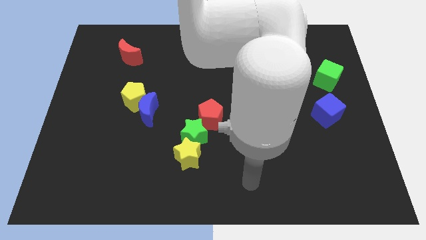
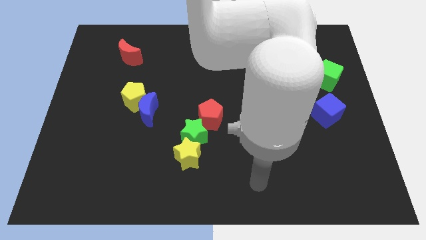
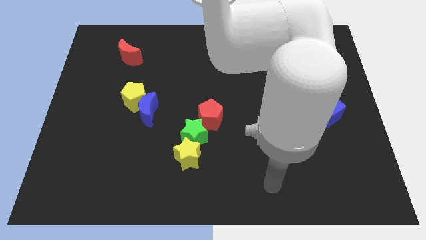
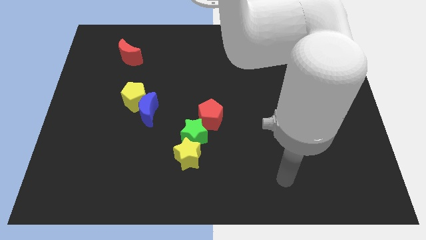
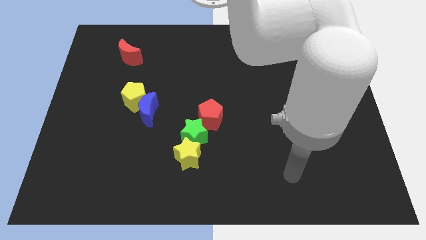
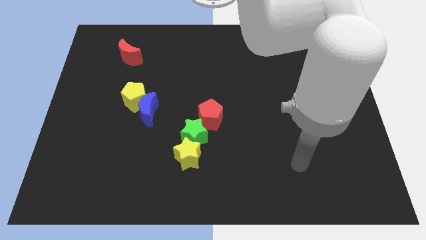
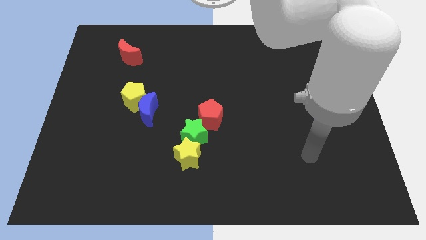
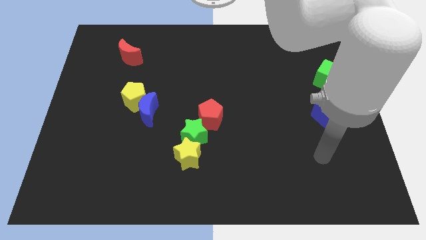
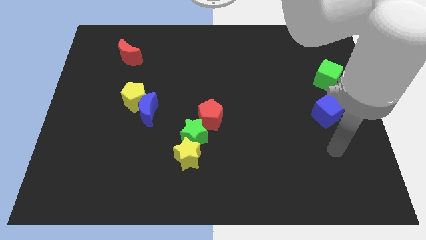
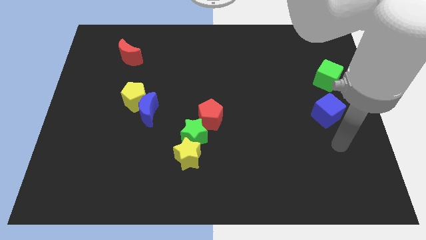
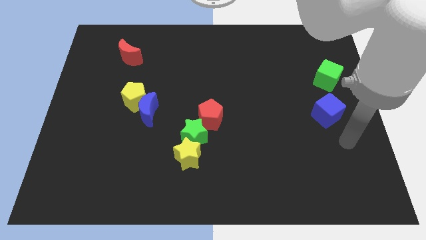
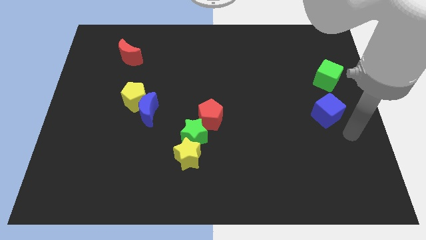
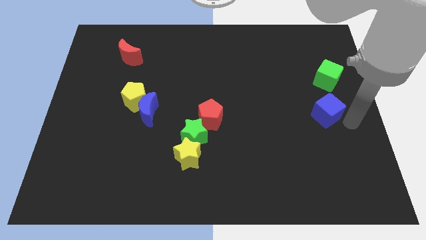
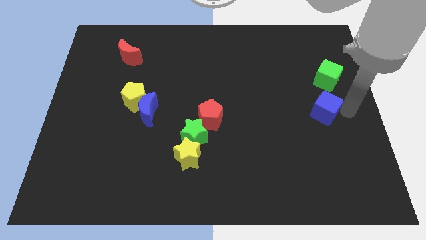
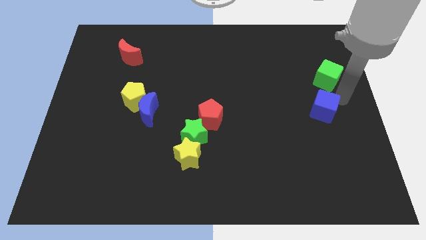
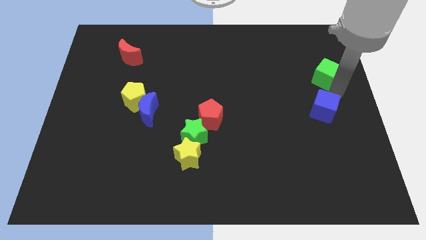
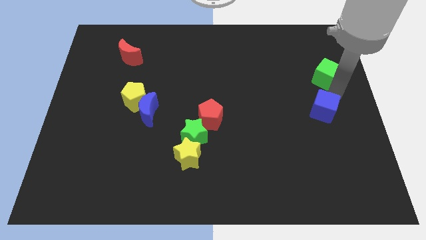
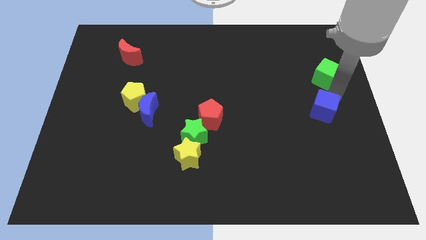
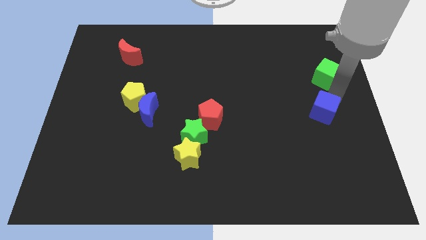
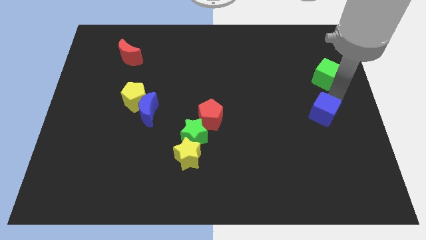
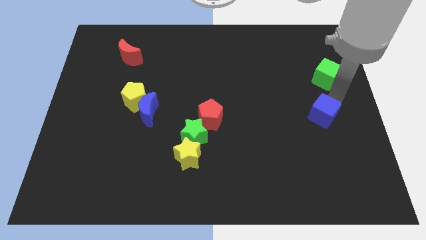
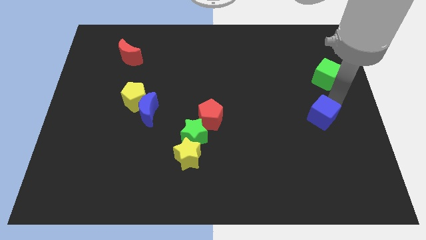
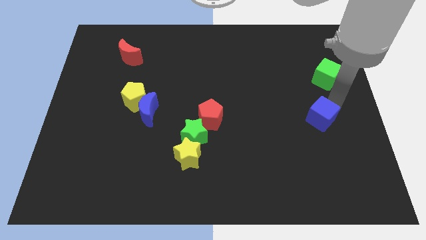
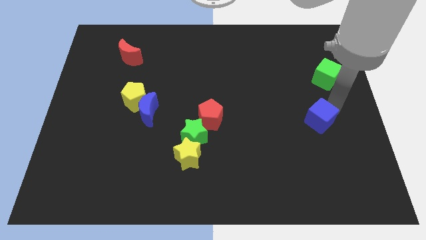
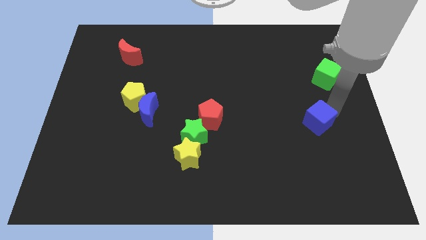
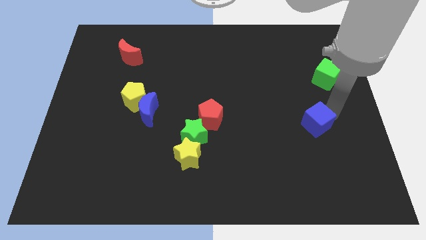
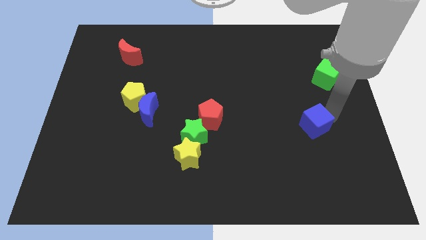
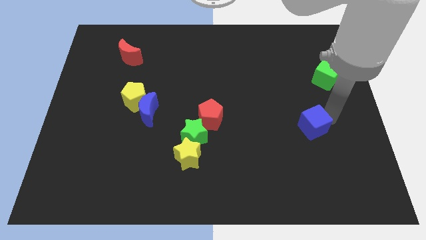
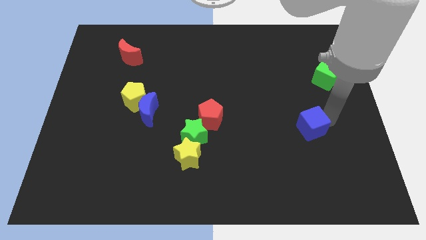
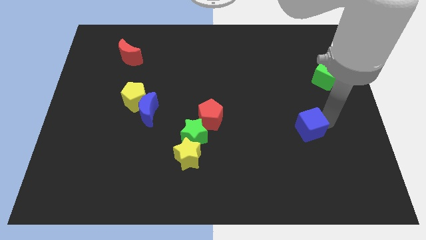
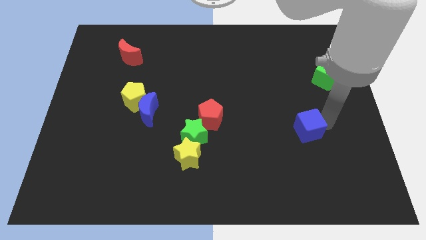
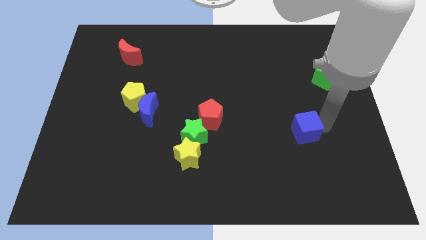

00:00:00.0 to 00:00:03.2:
move the blue cube slightly down and left diagonally

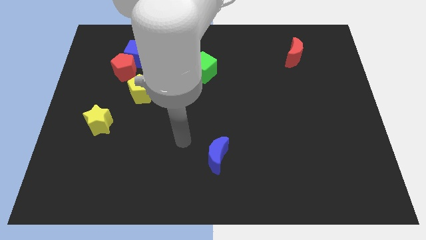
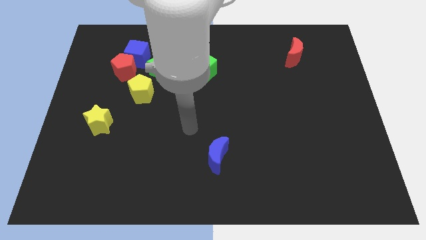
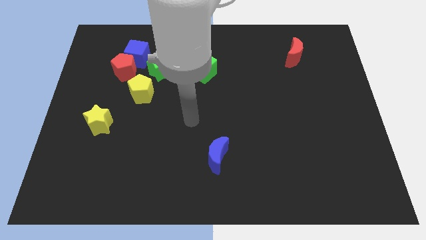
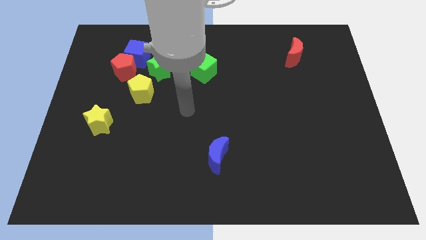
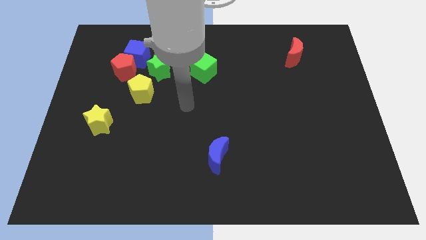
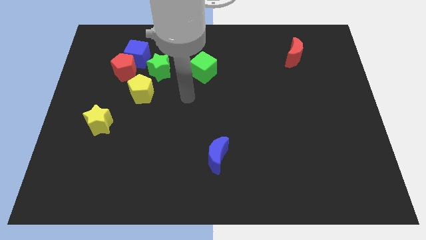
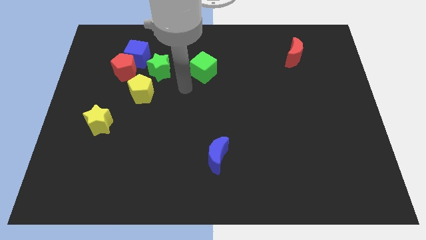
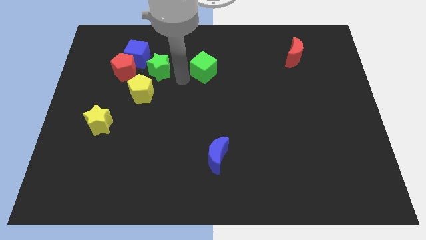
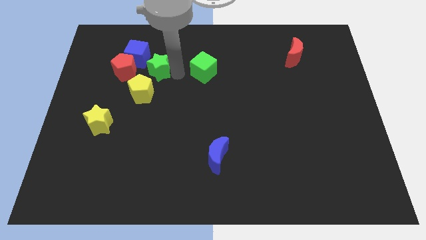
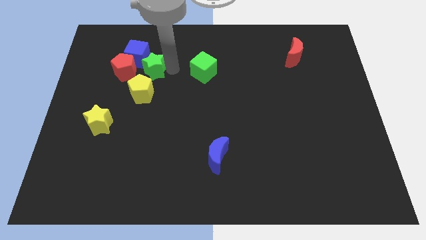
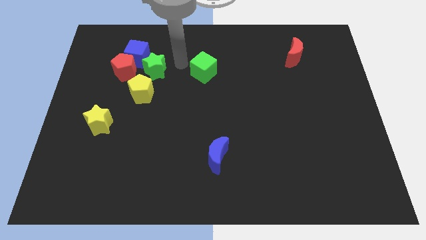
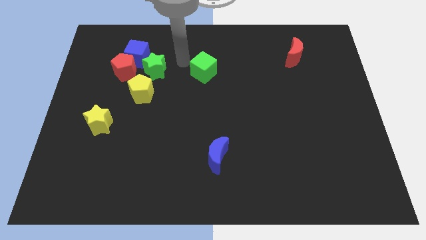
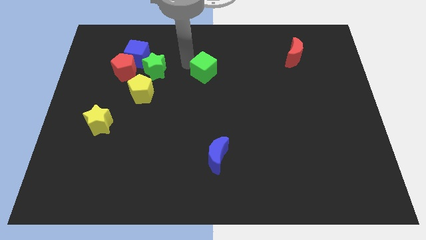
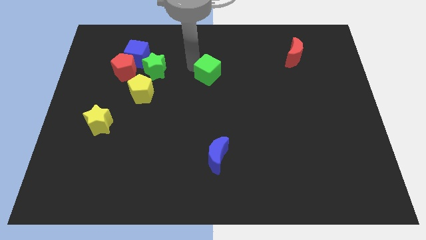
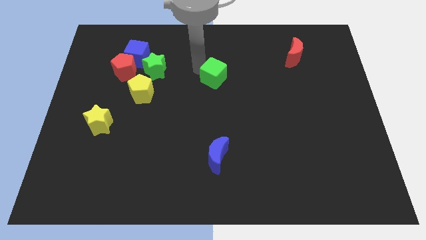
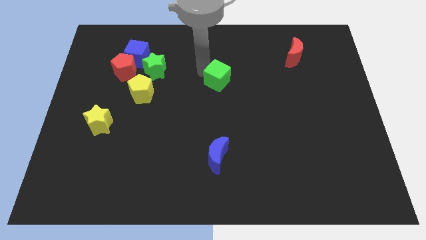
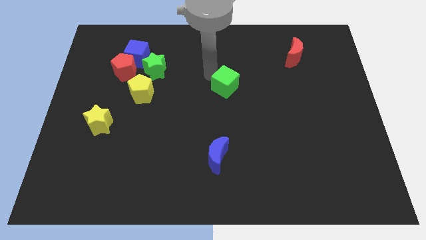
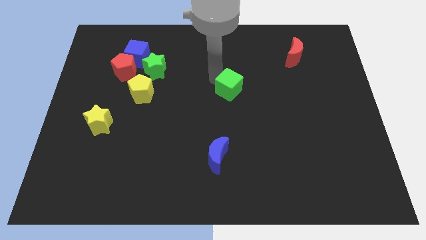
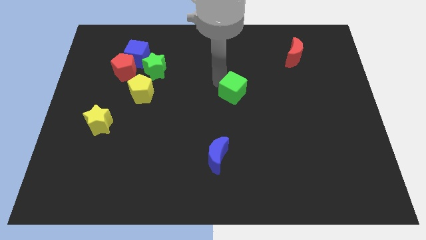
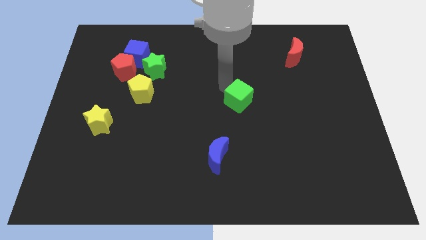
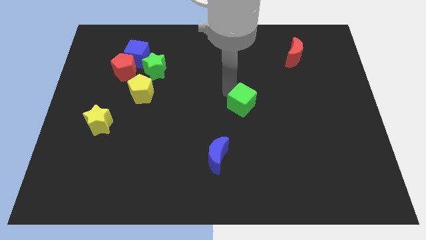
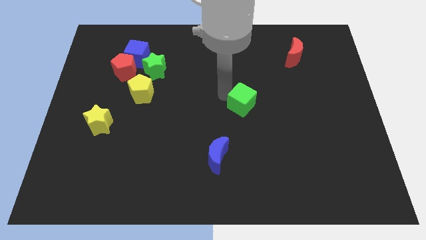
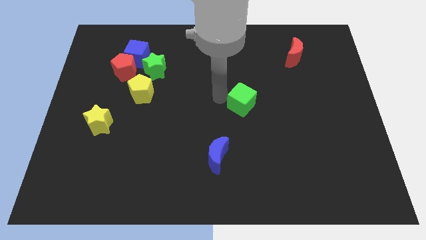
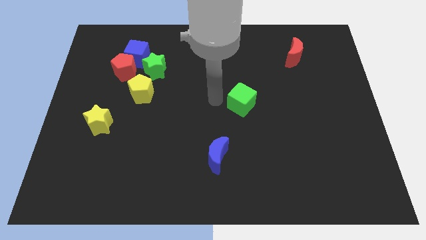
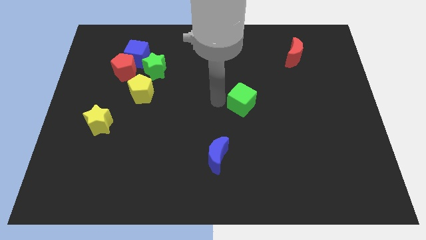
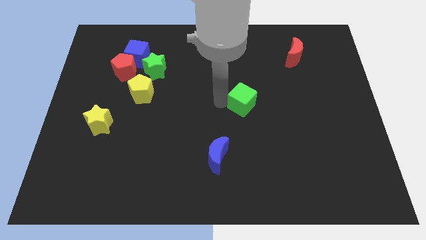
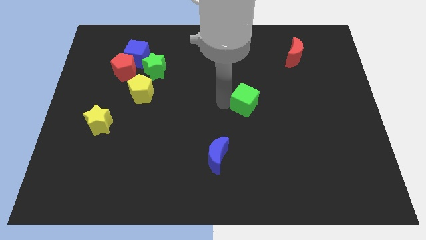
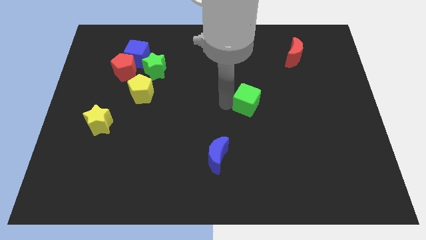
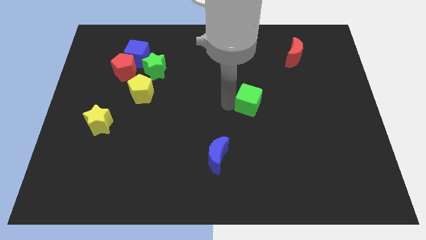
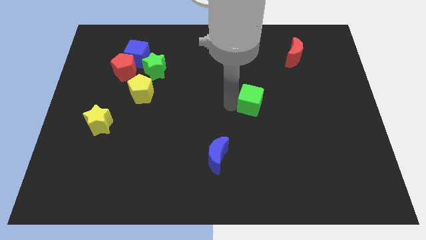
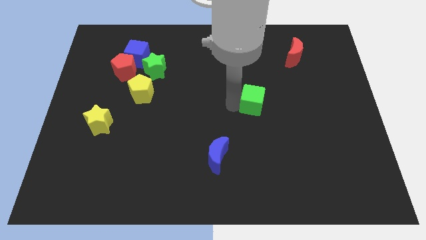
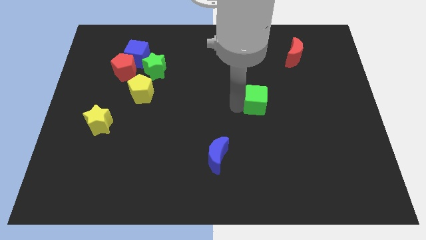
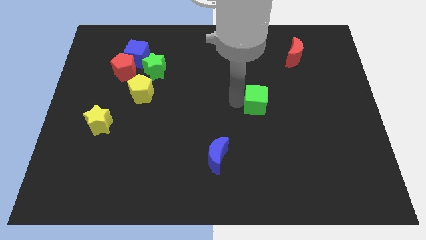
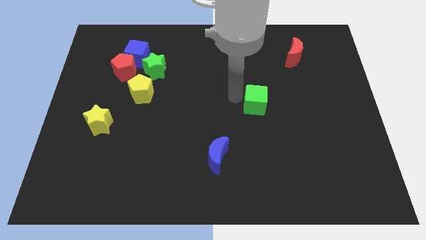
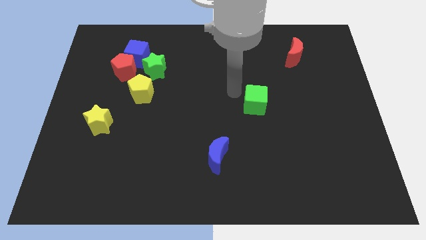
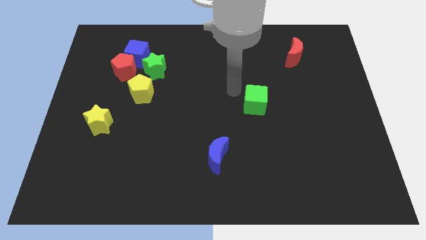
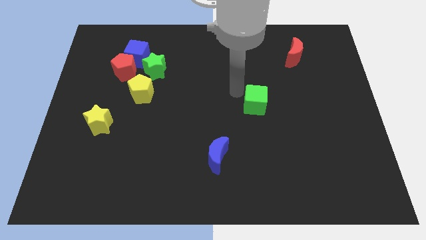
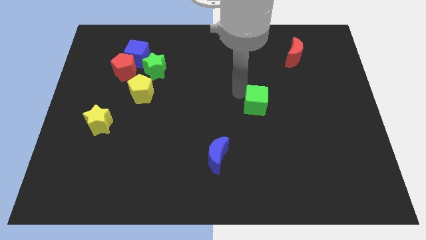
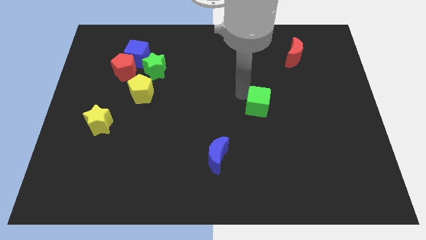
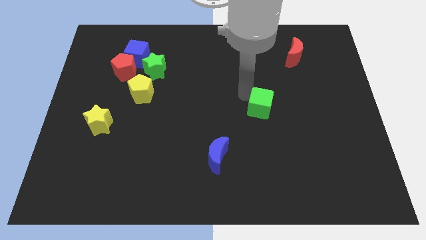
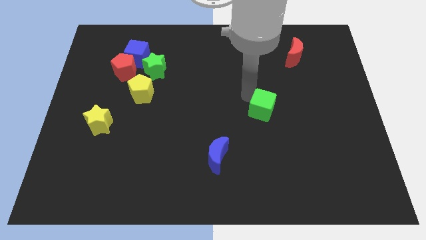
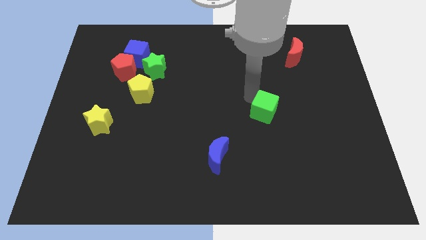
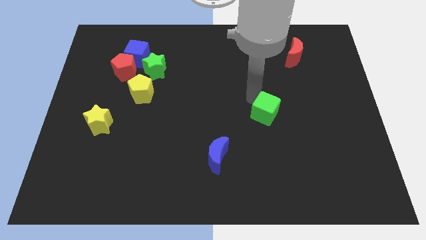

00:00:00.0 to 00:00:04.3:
slide the green cube downwards and then right

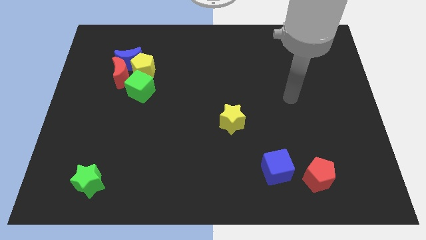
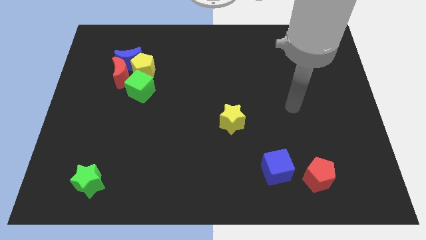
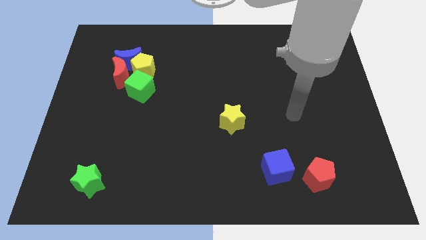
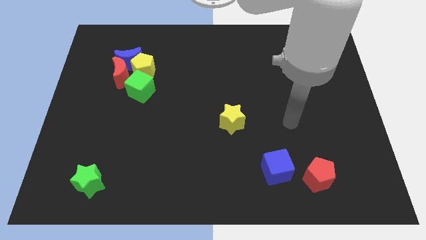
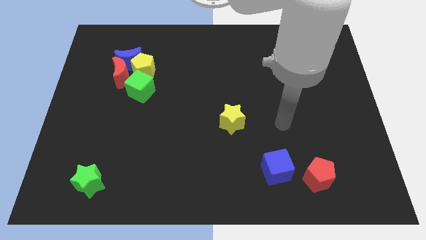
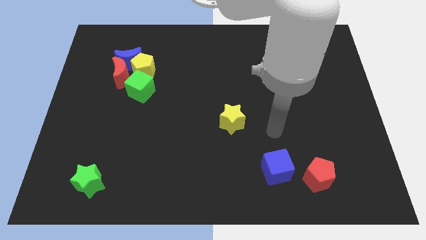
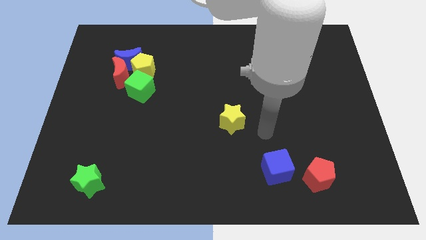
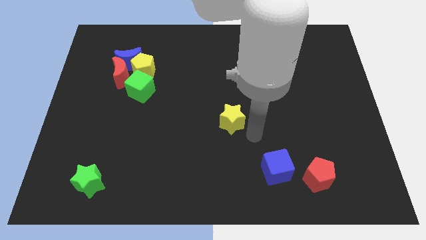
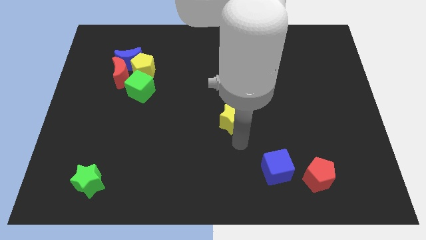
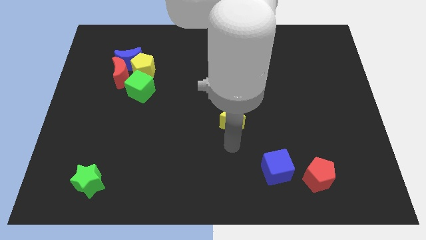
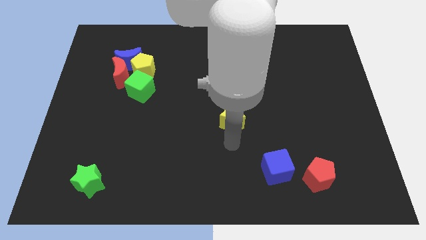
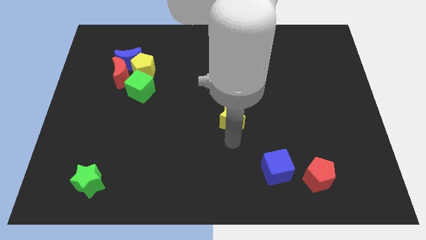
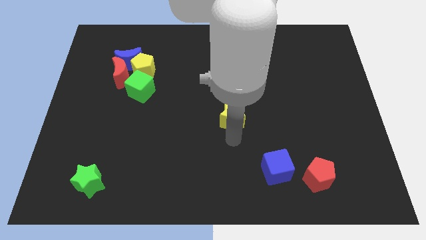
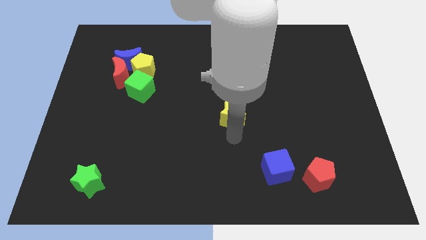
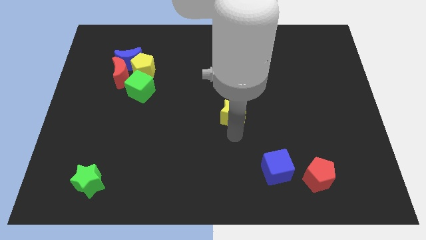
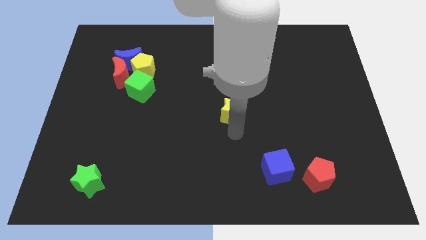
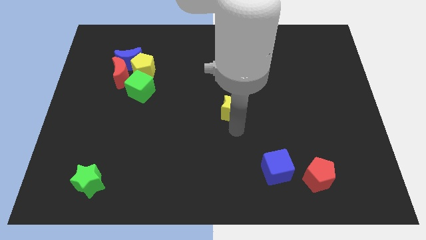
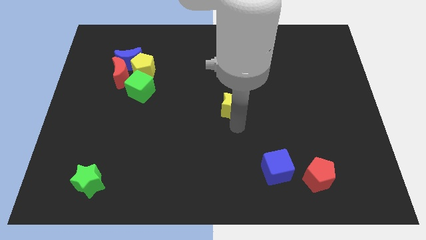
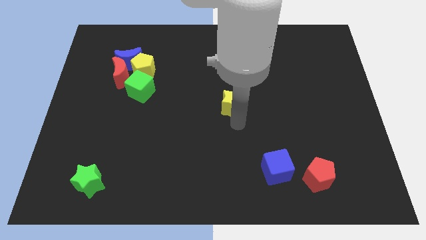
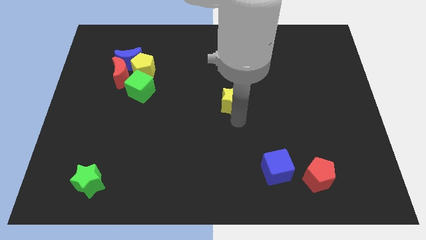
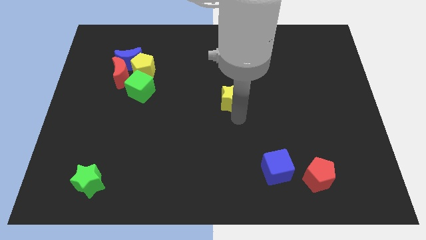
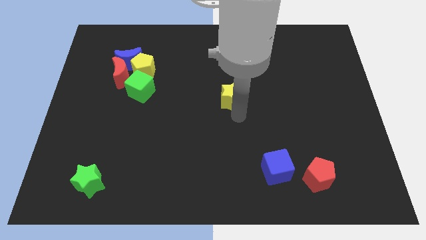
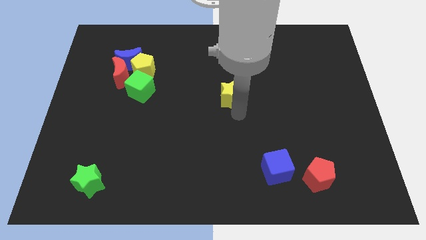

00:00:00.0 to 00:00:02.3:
slightly slide the yellow star upwards
